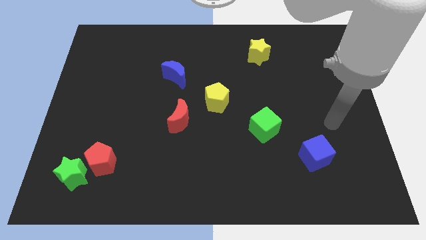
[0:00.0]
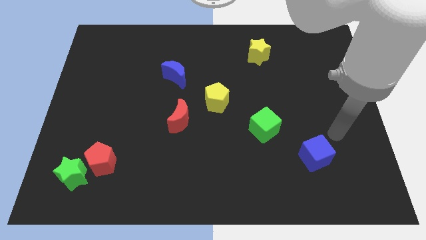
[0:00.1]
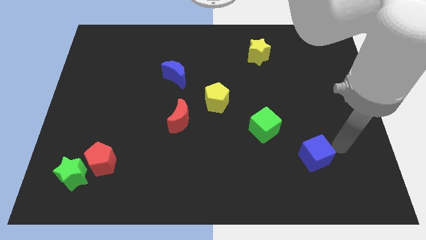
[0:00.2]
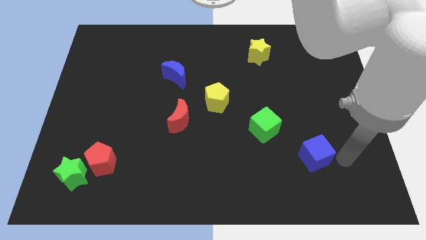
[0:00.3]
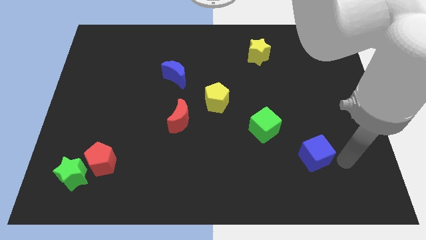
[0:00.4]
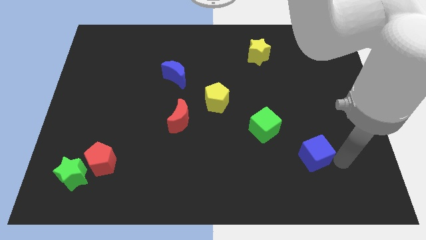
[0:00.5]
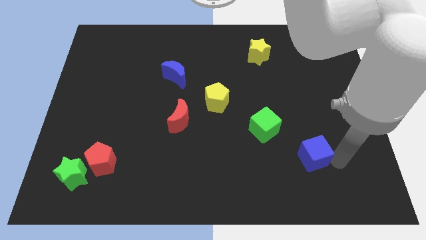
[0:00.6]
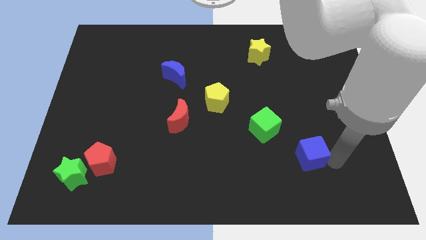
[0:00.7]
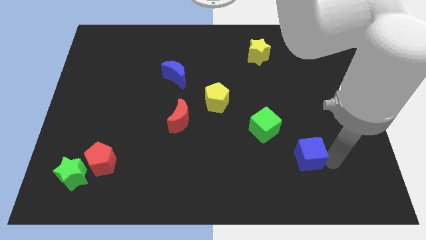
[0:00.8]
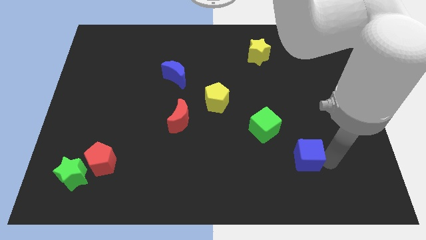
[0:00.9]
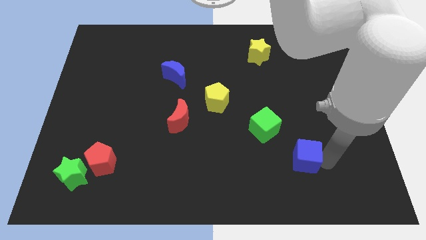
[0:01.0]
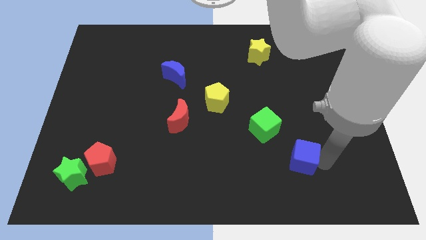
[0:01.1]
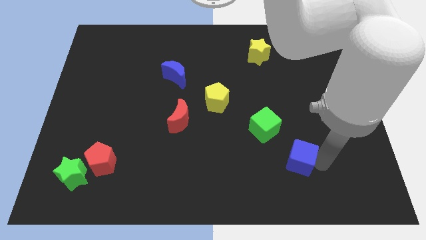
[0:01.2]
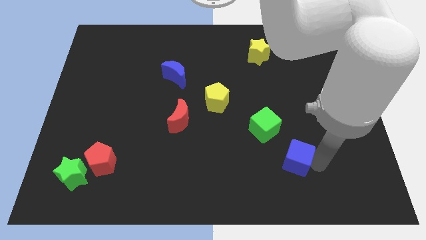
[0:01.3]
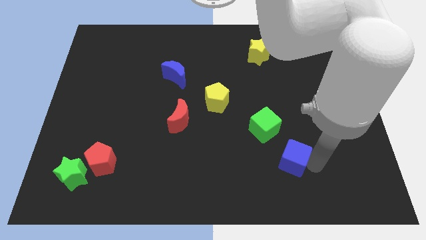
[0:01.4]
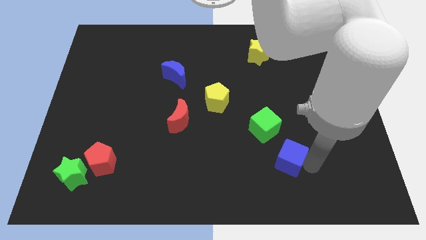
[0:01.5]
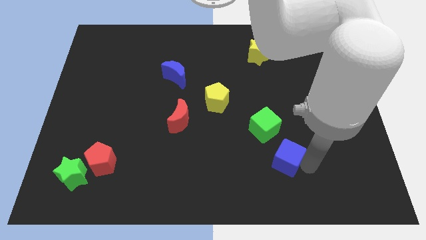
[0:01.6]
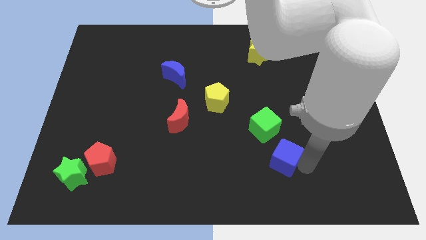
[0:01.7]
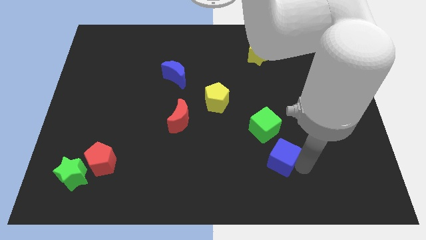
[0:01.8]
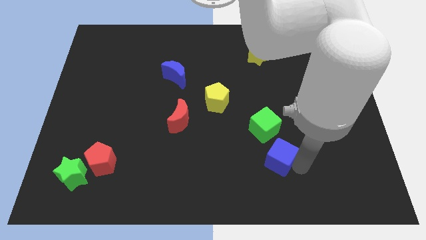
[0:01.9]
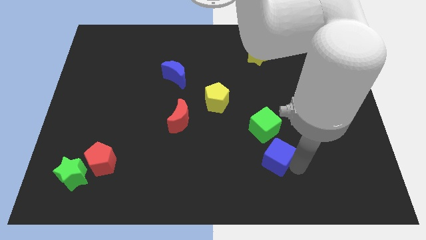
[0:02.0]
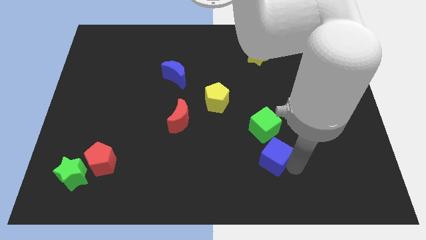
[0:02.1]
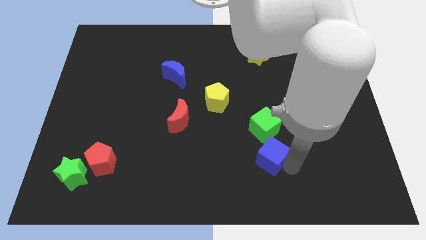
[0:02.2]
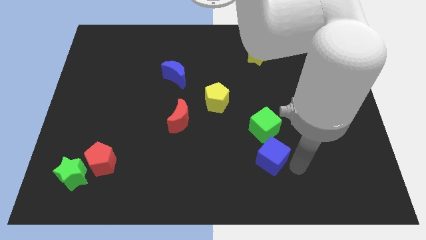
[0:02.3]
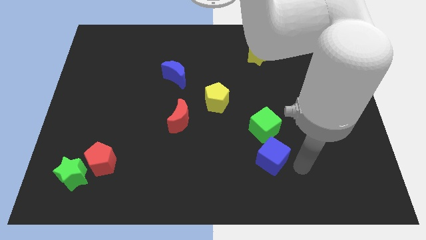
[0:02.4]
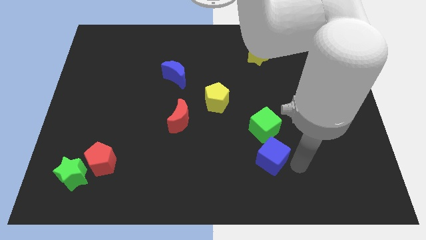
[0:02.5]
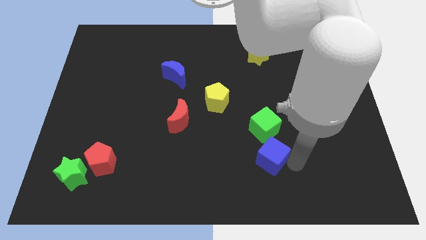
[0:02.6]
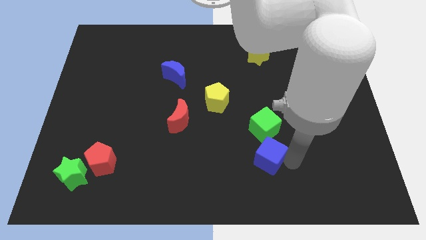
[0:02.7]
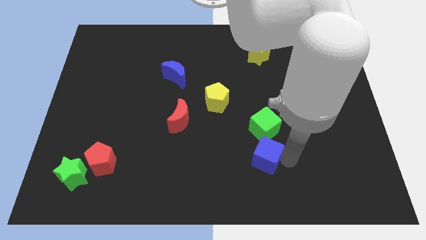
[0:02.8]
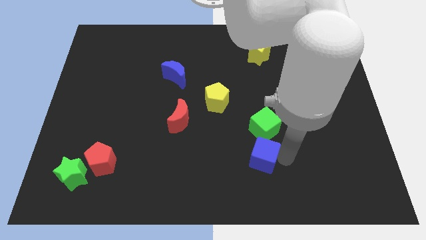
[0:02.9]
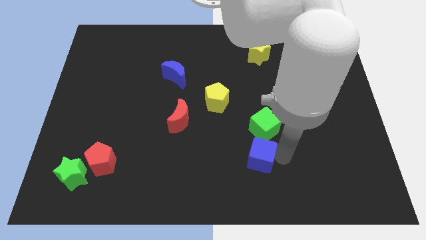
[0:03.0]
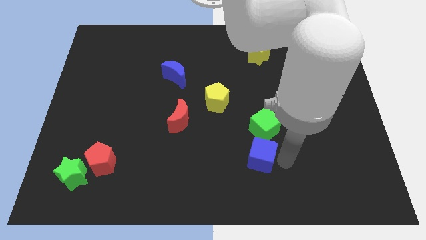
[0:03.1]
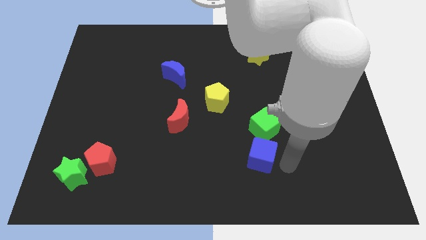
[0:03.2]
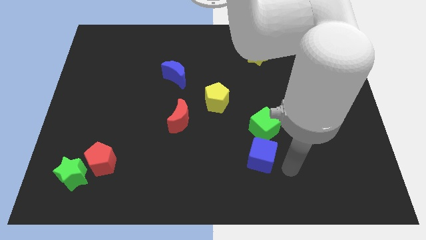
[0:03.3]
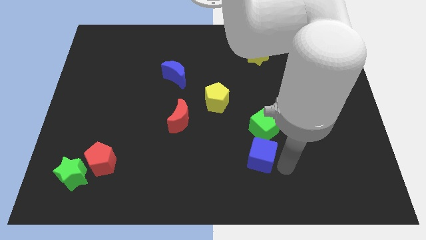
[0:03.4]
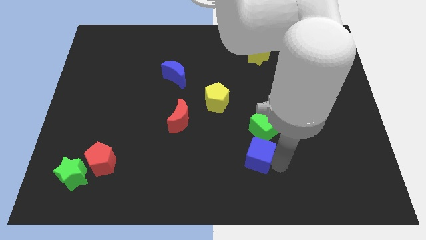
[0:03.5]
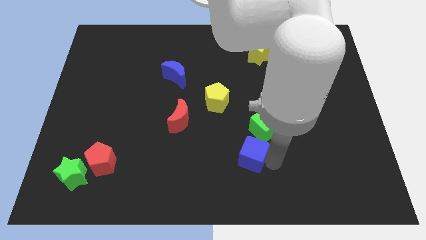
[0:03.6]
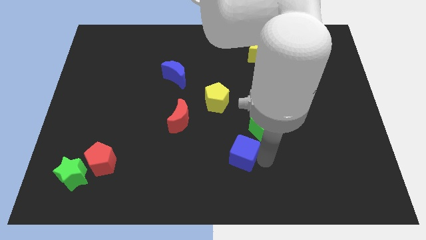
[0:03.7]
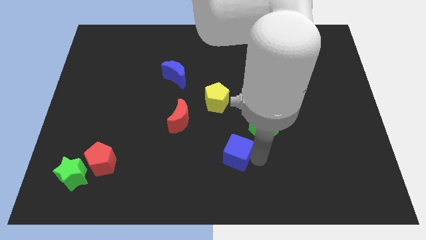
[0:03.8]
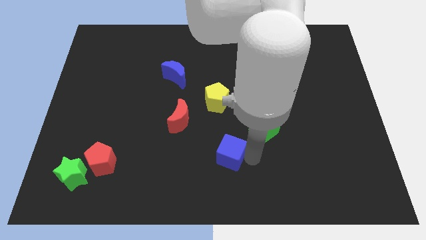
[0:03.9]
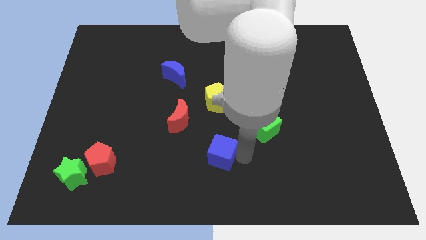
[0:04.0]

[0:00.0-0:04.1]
push the blue cube to the left

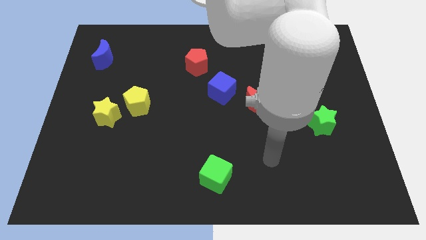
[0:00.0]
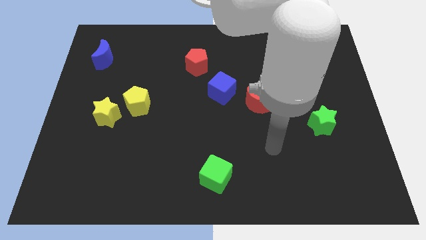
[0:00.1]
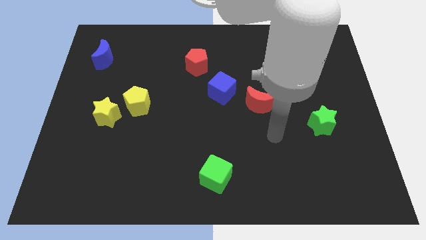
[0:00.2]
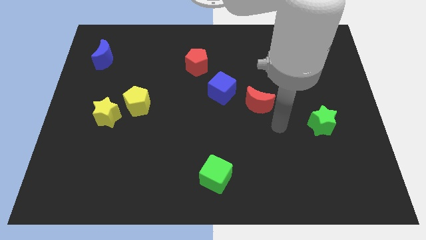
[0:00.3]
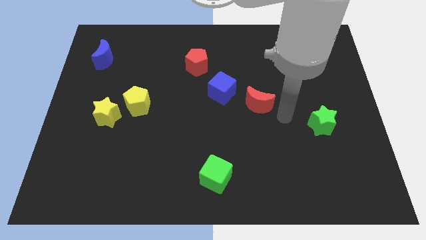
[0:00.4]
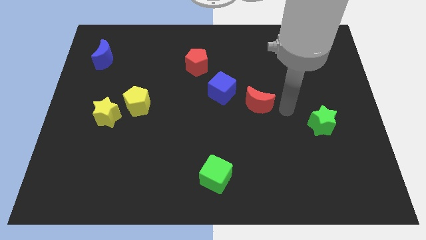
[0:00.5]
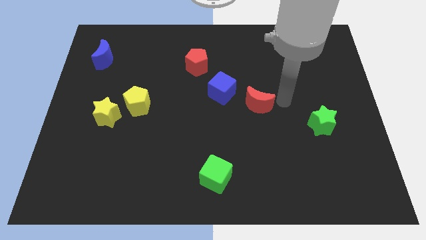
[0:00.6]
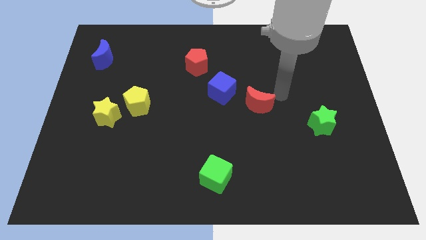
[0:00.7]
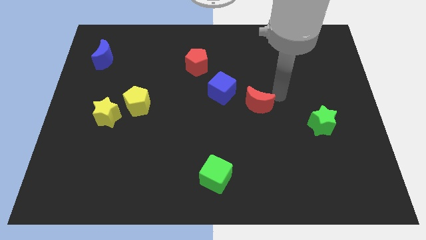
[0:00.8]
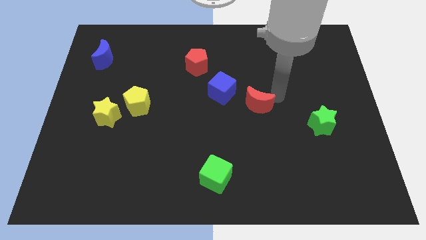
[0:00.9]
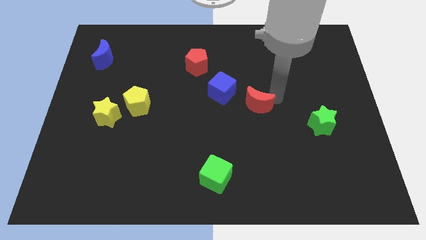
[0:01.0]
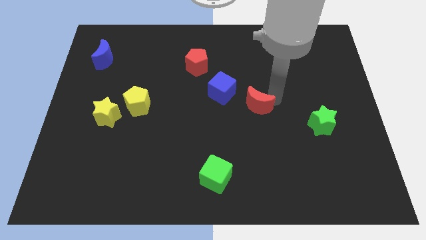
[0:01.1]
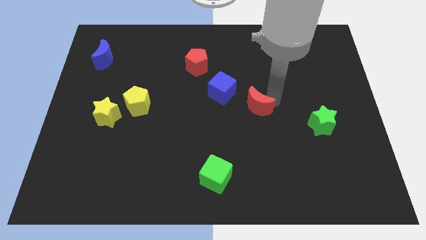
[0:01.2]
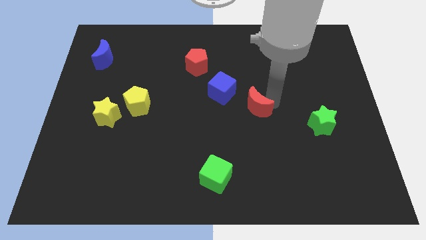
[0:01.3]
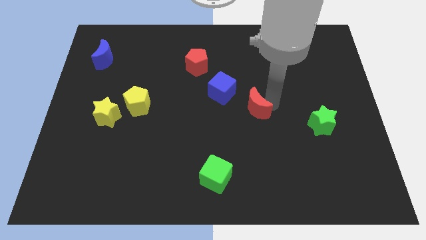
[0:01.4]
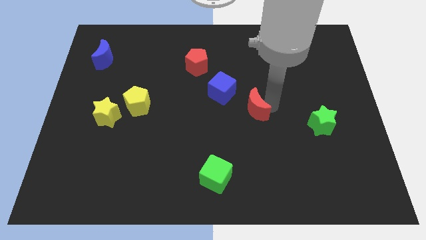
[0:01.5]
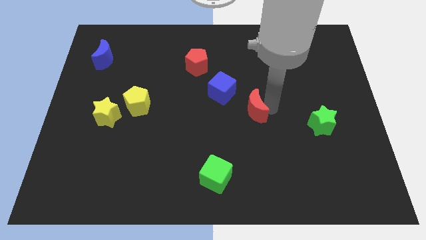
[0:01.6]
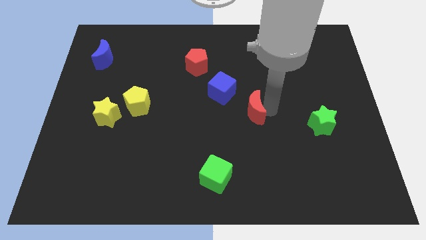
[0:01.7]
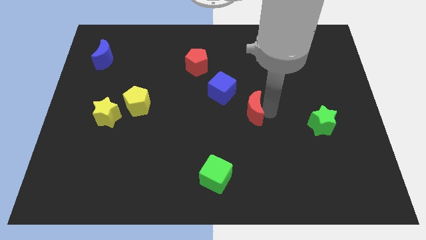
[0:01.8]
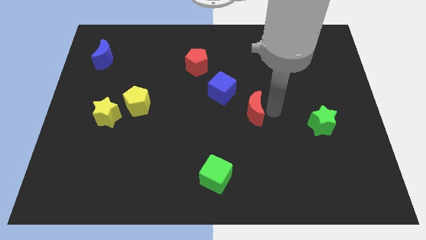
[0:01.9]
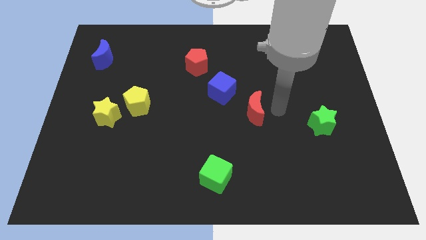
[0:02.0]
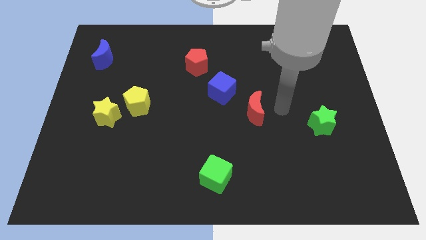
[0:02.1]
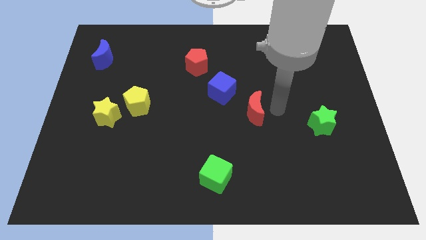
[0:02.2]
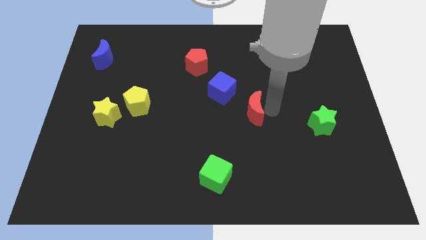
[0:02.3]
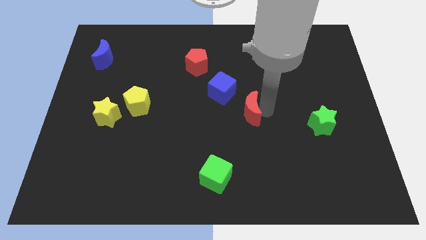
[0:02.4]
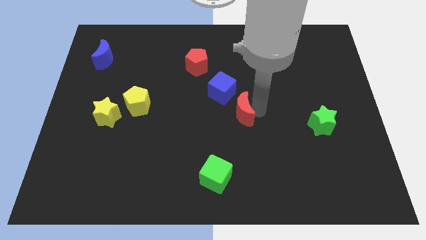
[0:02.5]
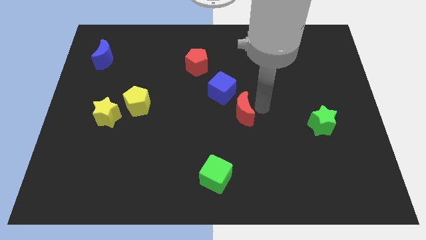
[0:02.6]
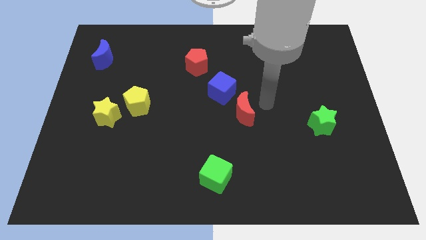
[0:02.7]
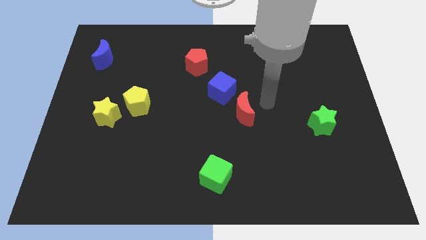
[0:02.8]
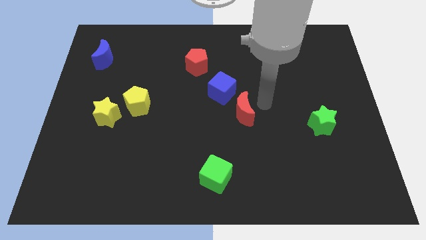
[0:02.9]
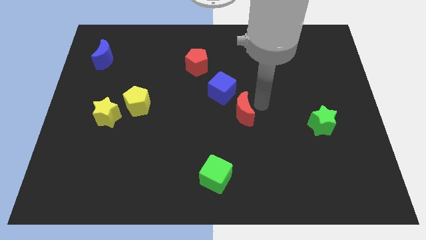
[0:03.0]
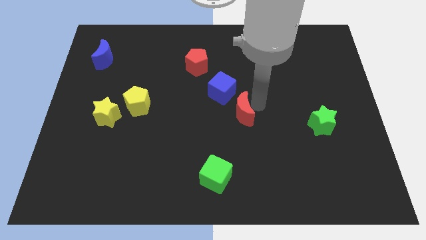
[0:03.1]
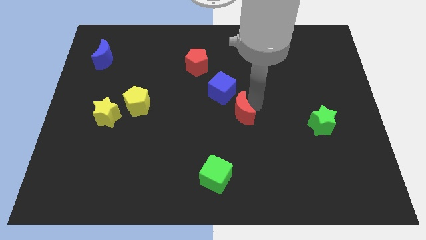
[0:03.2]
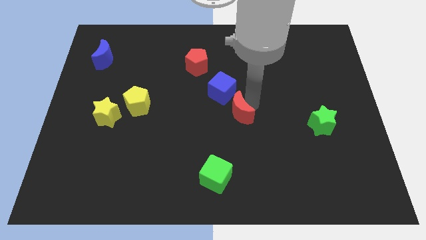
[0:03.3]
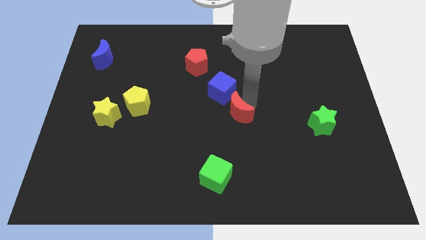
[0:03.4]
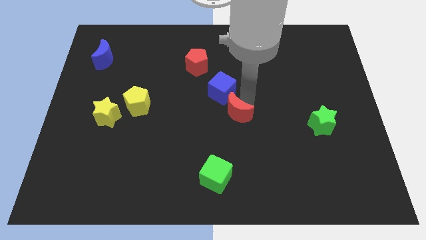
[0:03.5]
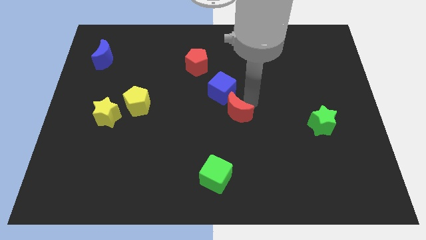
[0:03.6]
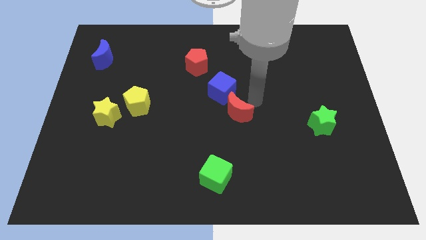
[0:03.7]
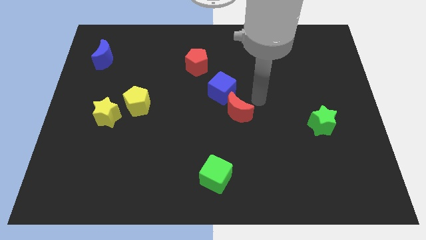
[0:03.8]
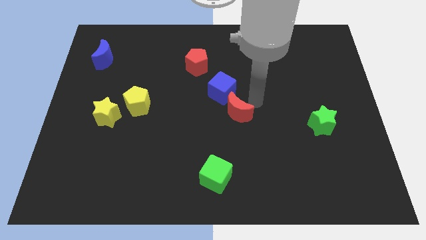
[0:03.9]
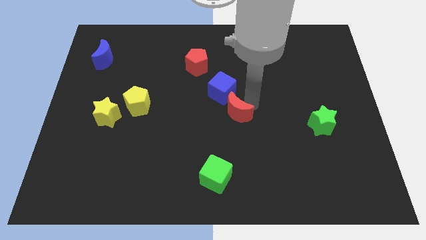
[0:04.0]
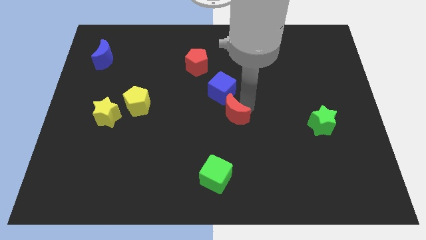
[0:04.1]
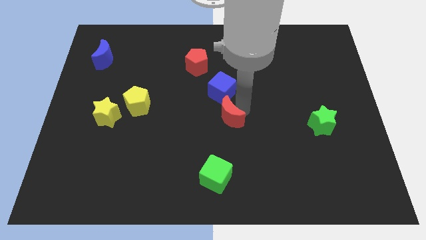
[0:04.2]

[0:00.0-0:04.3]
slightly move the red moon down and to the left
